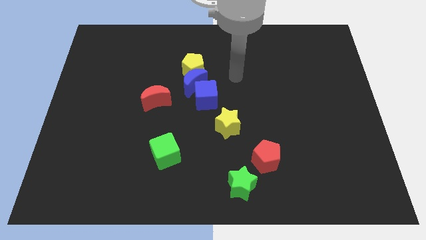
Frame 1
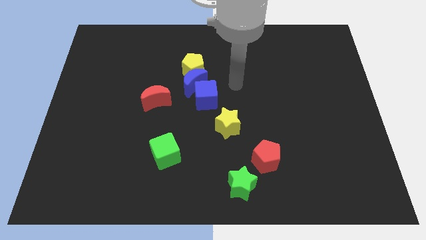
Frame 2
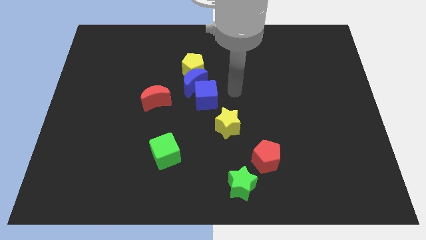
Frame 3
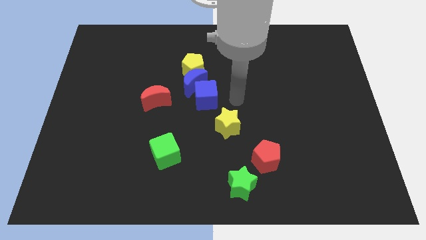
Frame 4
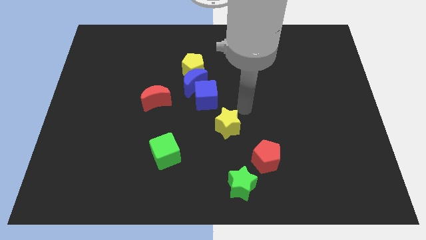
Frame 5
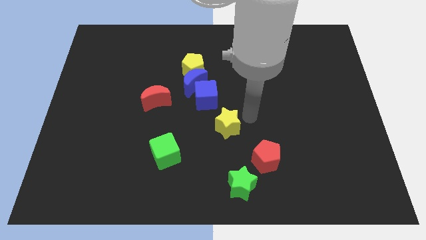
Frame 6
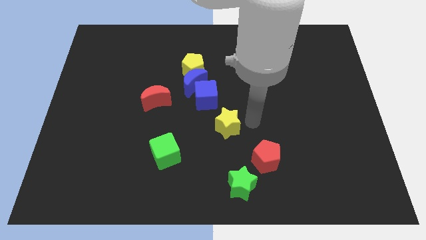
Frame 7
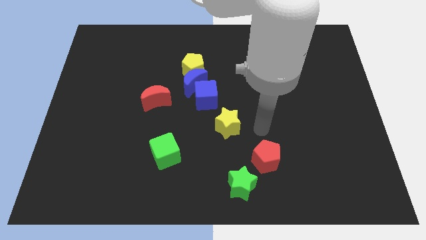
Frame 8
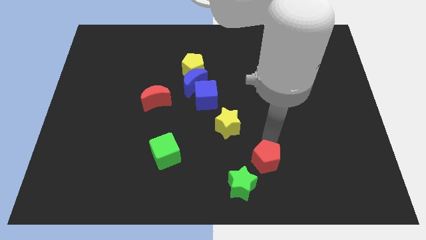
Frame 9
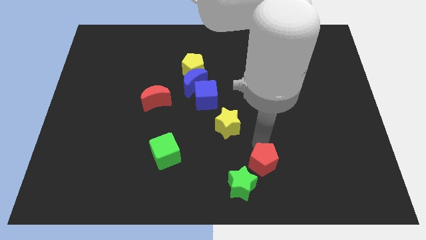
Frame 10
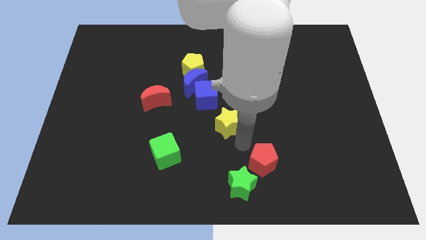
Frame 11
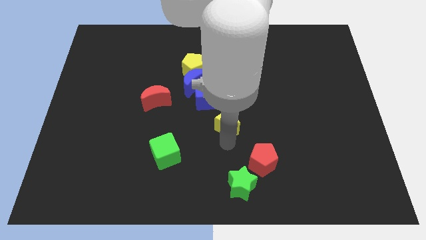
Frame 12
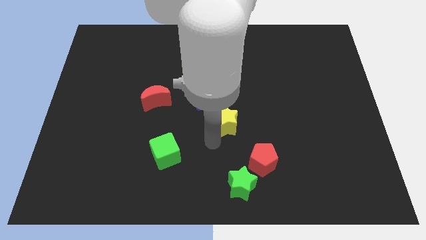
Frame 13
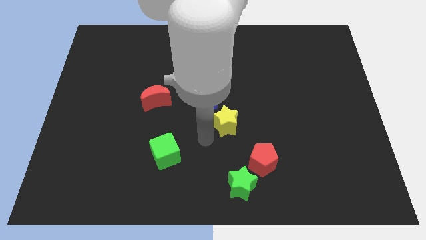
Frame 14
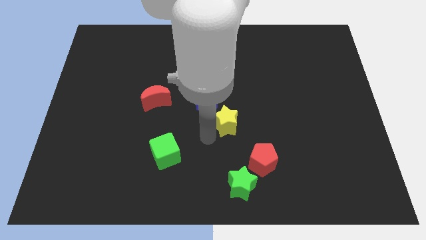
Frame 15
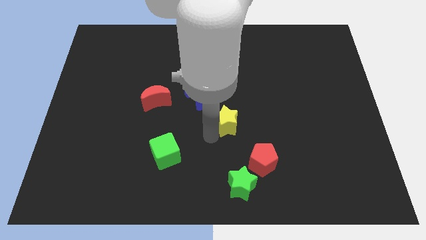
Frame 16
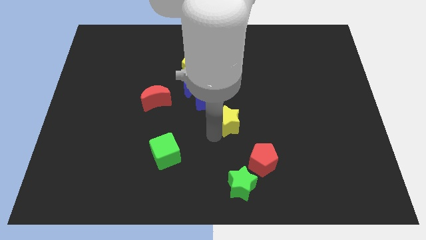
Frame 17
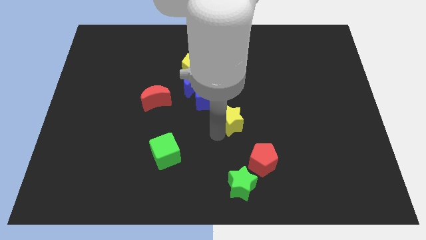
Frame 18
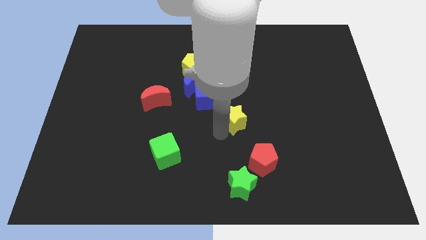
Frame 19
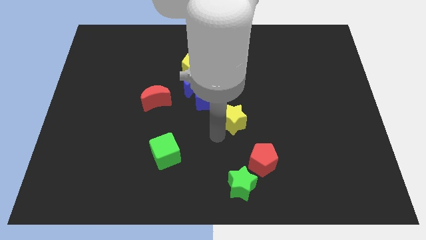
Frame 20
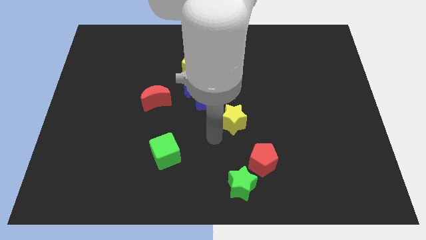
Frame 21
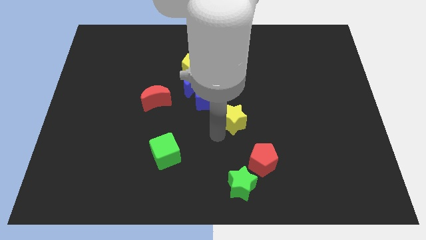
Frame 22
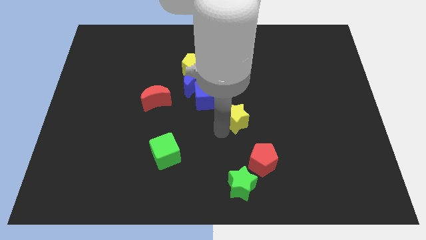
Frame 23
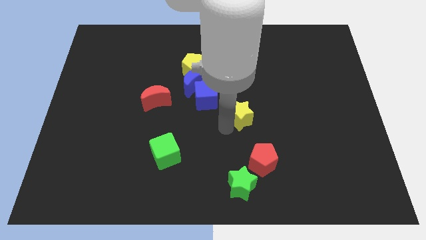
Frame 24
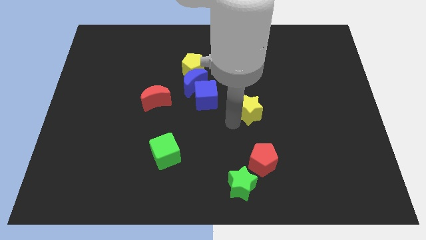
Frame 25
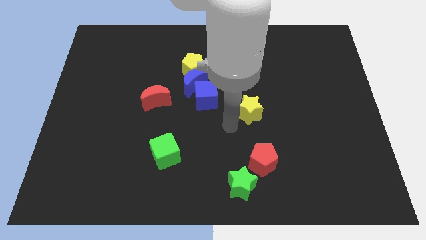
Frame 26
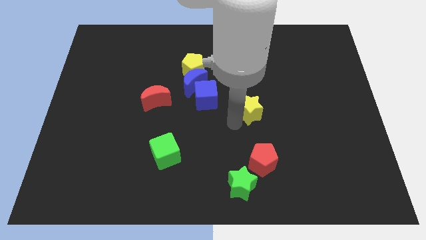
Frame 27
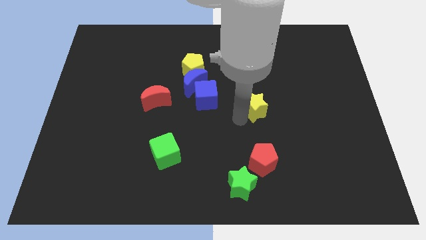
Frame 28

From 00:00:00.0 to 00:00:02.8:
push the yellow star diagonally upwards and to the right a little

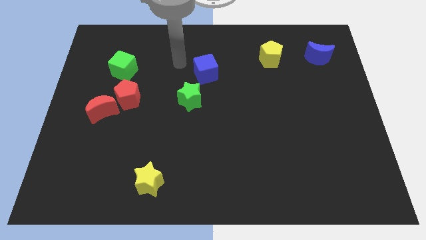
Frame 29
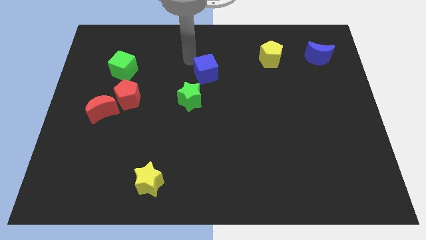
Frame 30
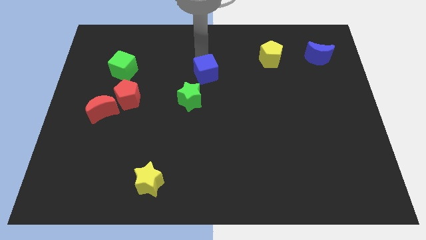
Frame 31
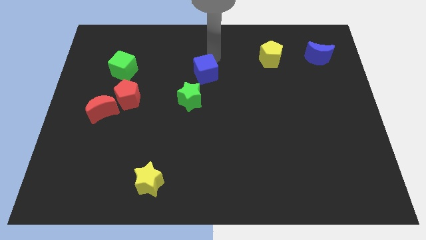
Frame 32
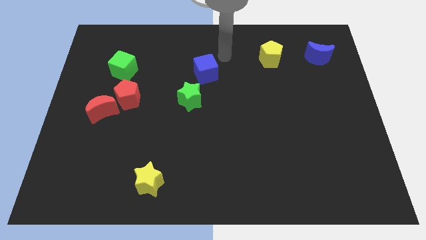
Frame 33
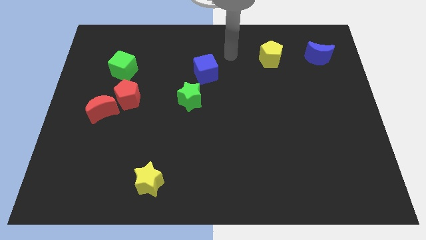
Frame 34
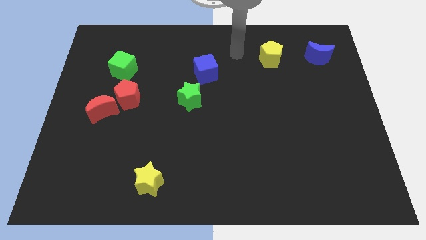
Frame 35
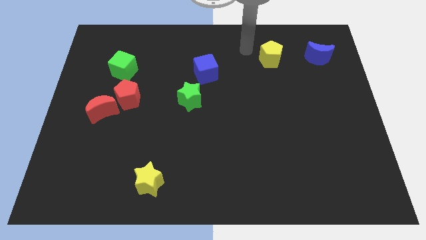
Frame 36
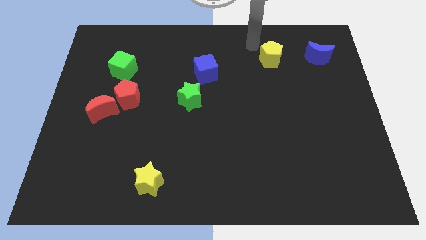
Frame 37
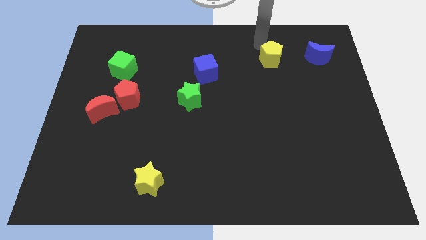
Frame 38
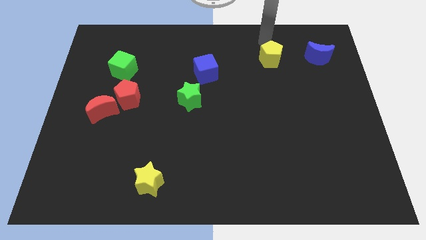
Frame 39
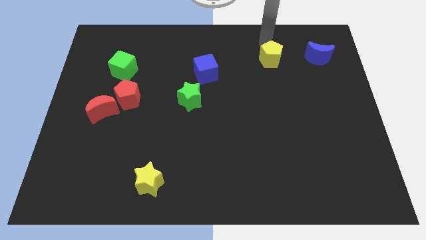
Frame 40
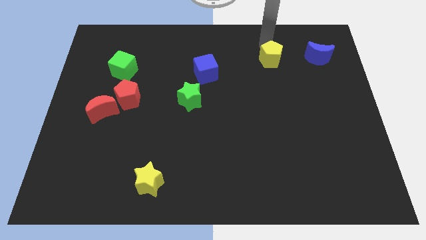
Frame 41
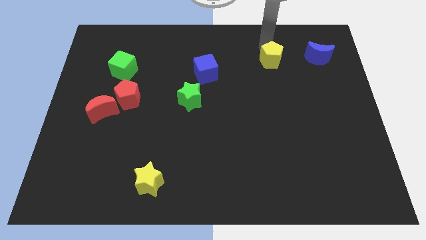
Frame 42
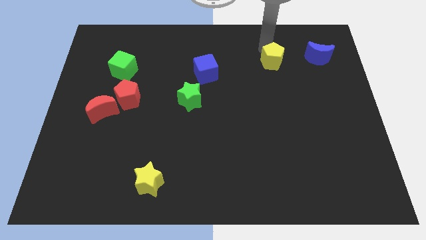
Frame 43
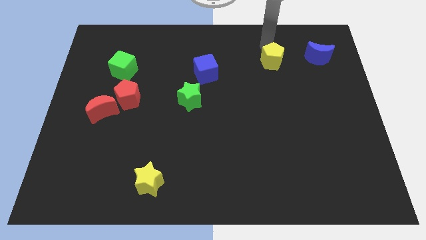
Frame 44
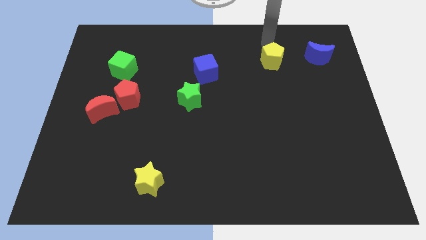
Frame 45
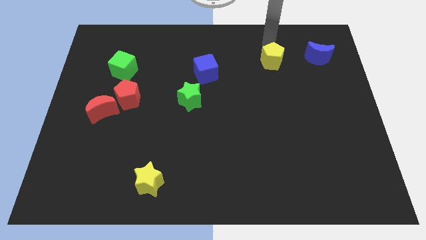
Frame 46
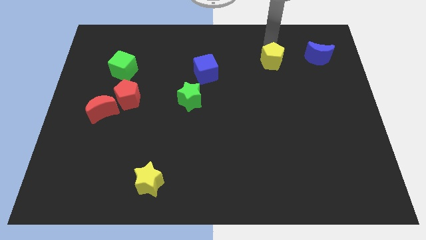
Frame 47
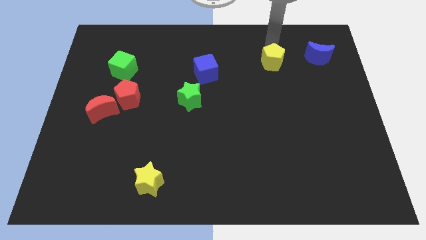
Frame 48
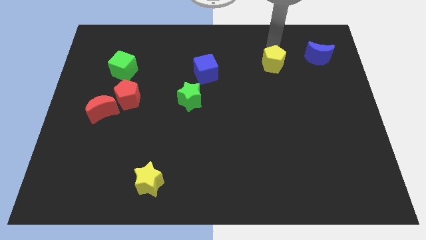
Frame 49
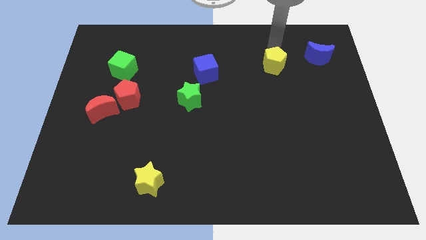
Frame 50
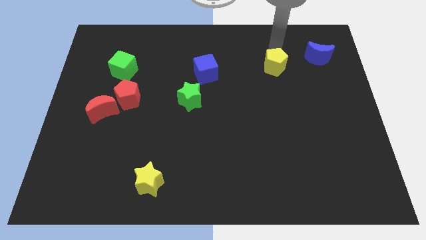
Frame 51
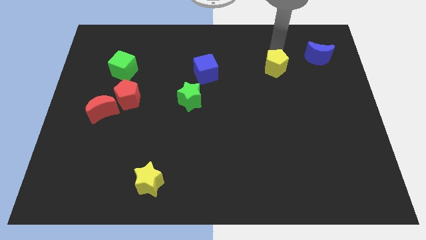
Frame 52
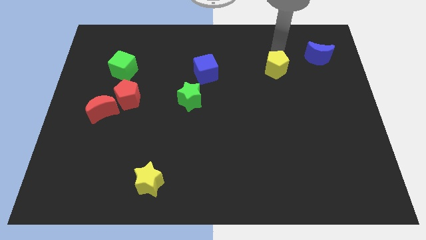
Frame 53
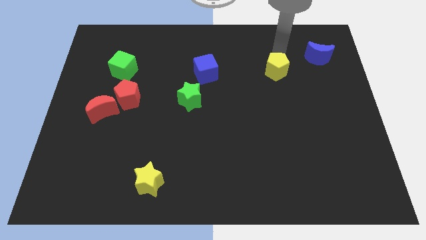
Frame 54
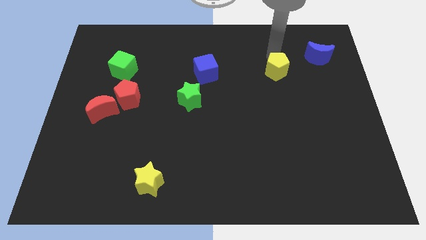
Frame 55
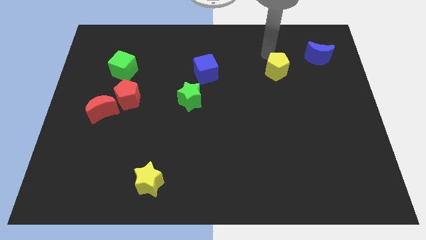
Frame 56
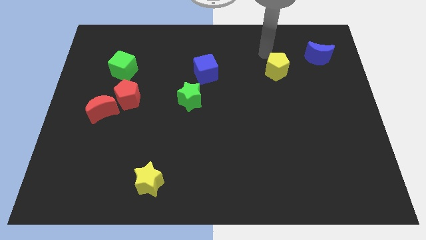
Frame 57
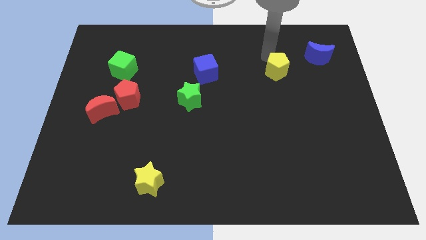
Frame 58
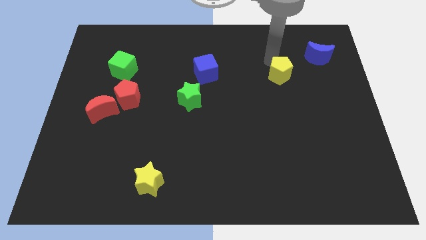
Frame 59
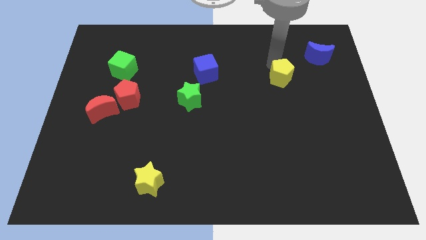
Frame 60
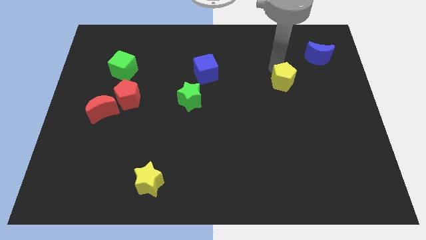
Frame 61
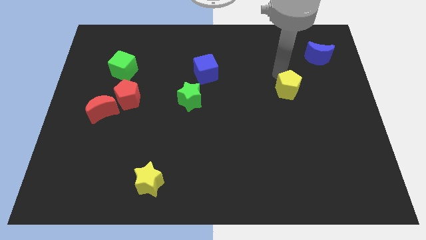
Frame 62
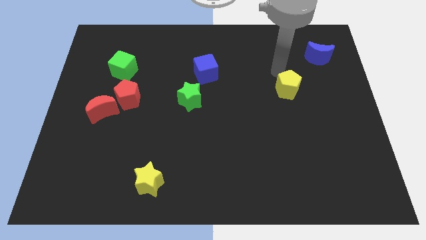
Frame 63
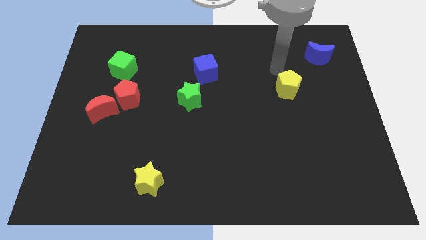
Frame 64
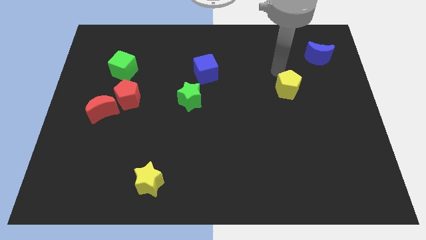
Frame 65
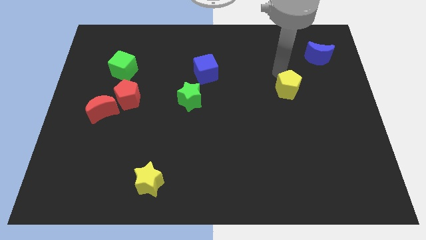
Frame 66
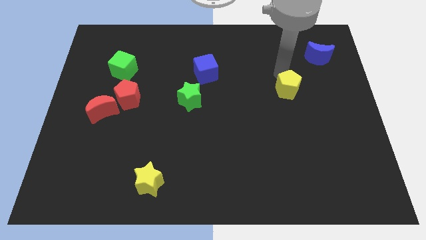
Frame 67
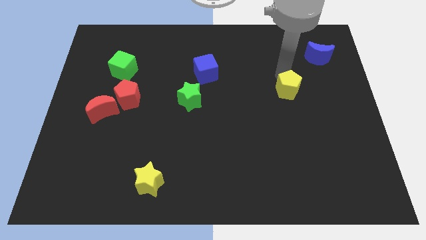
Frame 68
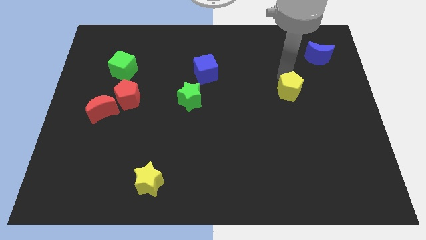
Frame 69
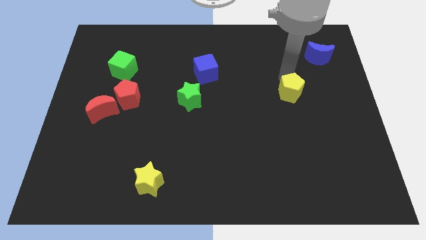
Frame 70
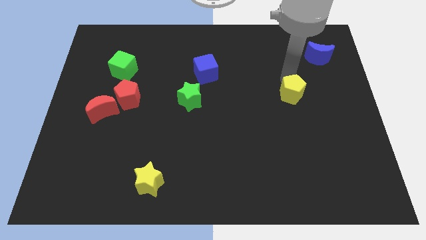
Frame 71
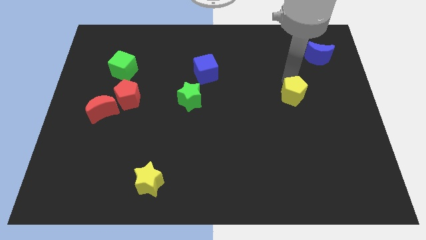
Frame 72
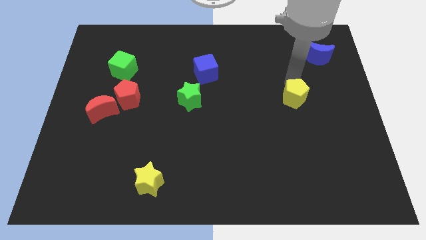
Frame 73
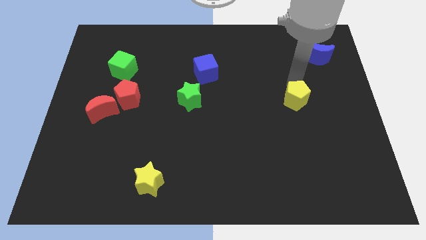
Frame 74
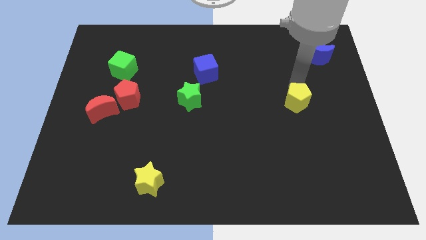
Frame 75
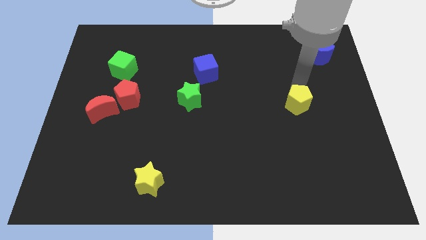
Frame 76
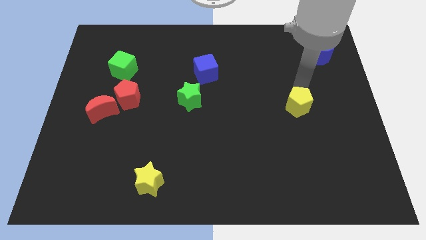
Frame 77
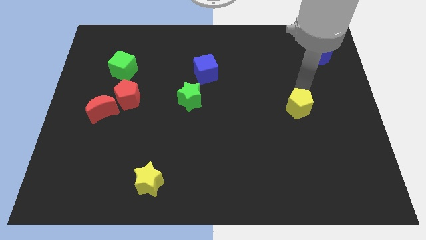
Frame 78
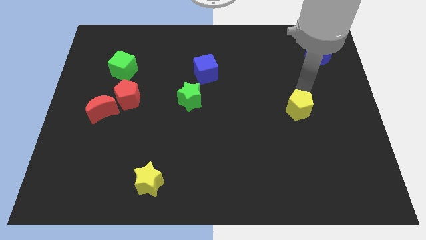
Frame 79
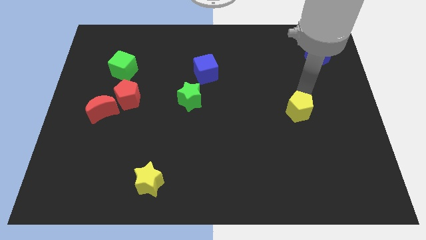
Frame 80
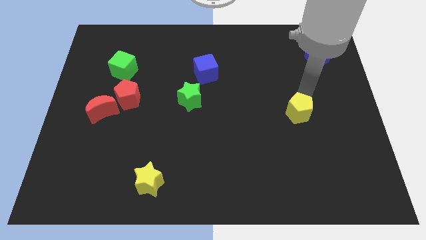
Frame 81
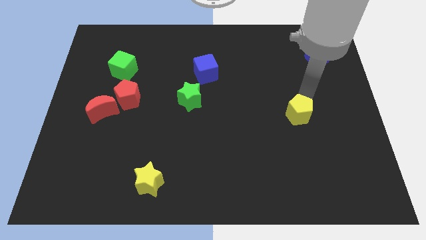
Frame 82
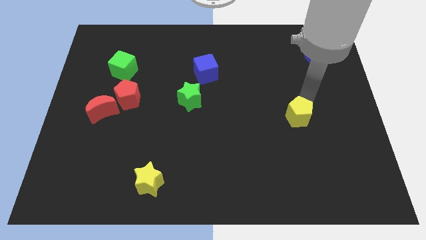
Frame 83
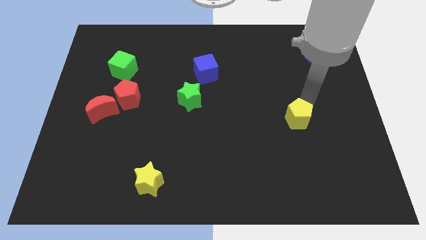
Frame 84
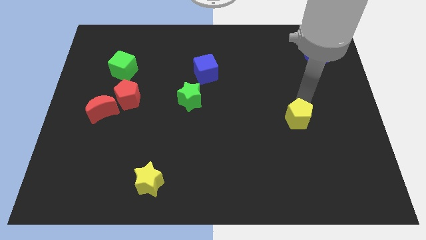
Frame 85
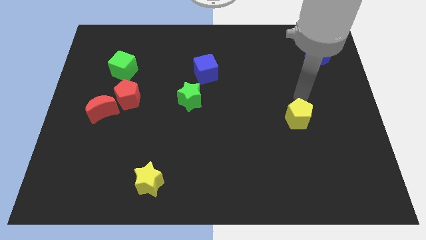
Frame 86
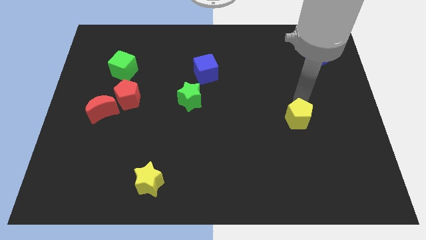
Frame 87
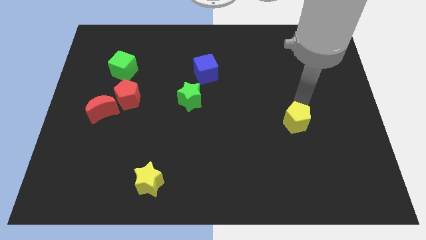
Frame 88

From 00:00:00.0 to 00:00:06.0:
push the yellow pentagon down
